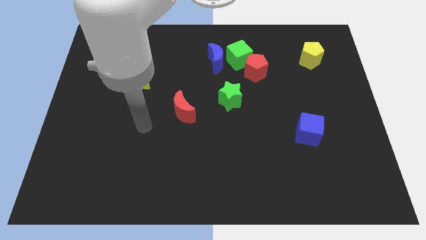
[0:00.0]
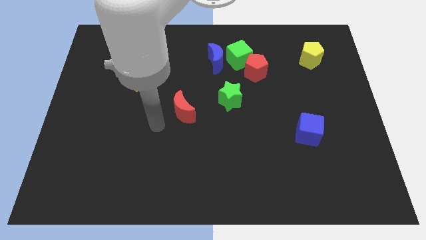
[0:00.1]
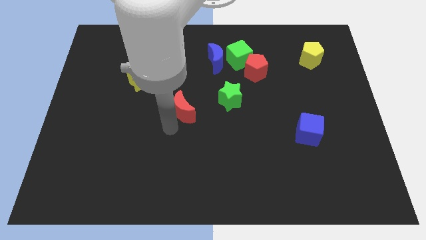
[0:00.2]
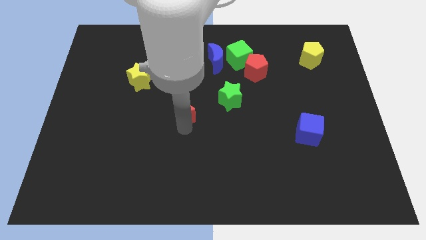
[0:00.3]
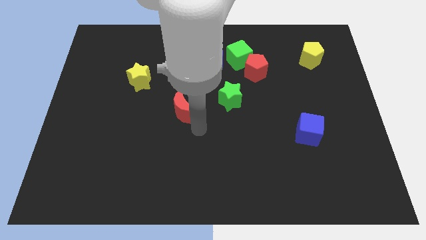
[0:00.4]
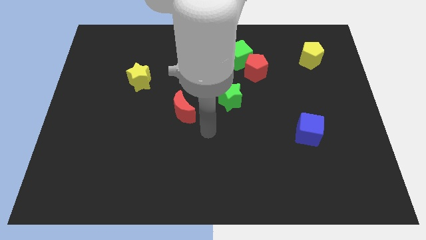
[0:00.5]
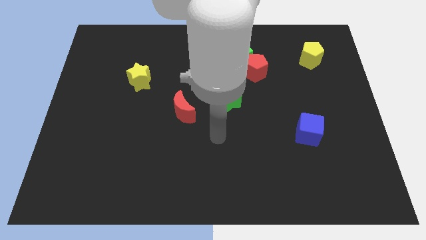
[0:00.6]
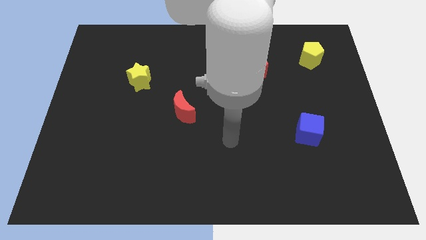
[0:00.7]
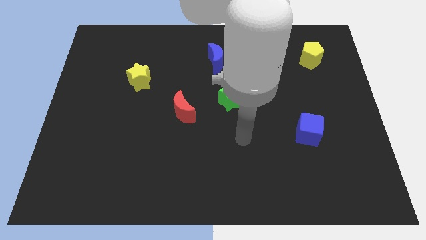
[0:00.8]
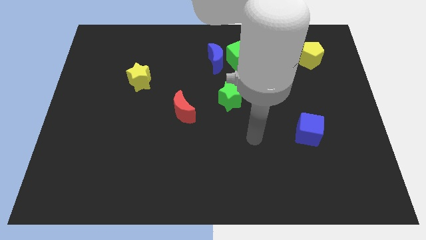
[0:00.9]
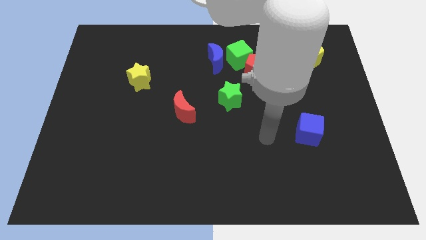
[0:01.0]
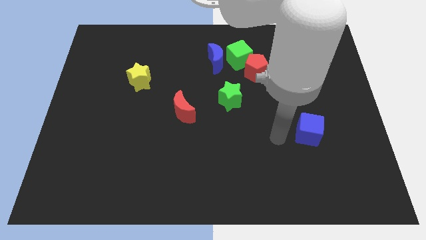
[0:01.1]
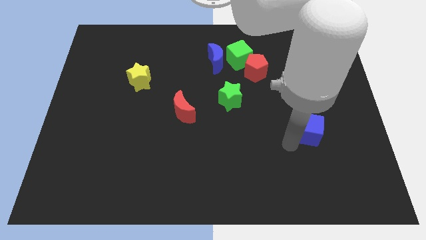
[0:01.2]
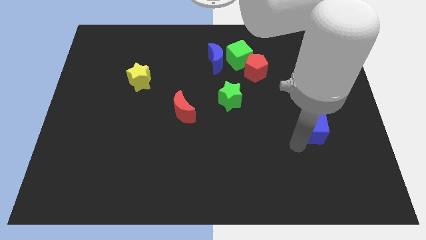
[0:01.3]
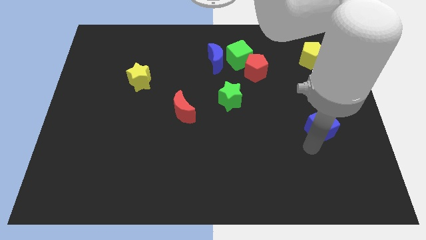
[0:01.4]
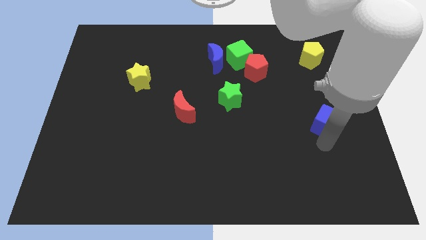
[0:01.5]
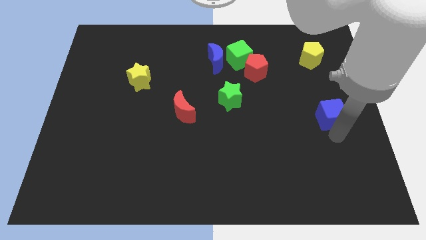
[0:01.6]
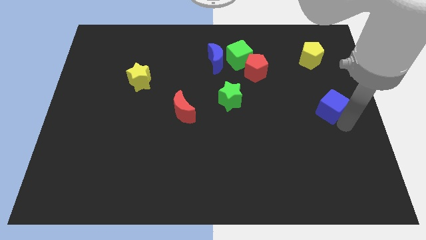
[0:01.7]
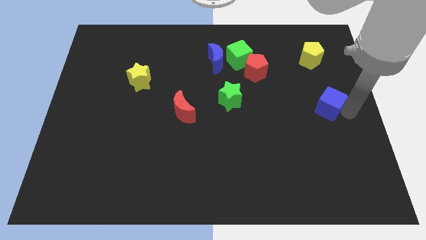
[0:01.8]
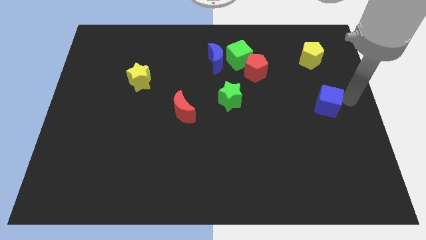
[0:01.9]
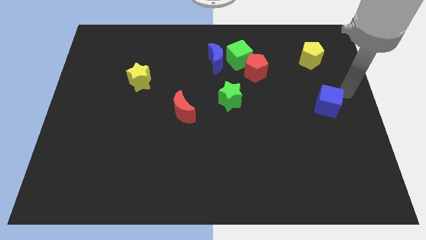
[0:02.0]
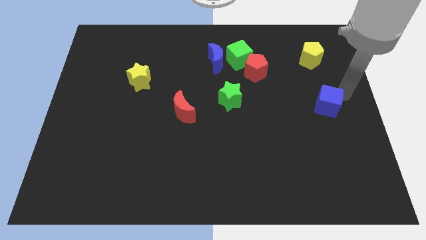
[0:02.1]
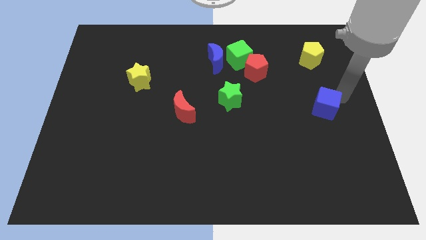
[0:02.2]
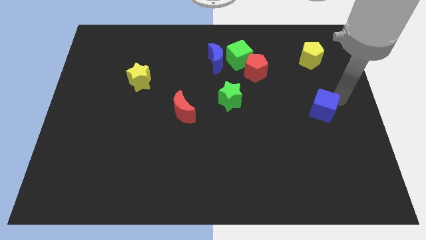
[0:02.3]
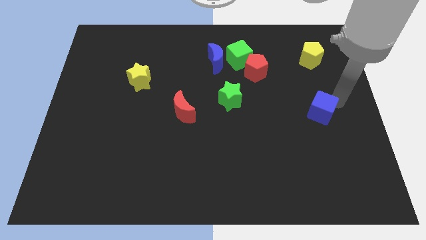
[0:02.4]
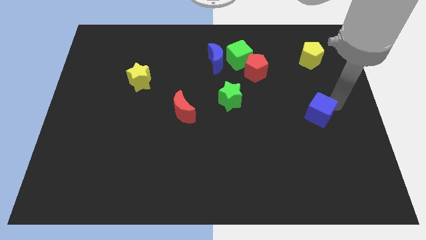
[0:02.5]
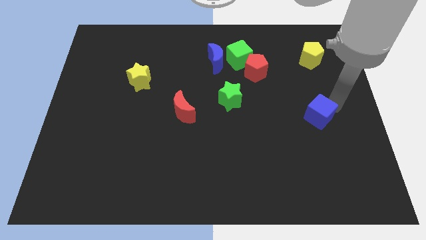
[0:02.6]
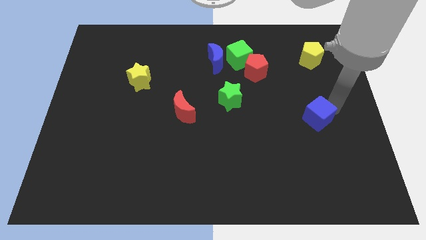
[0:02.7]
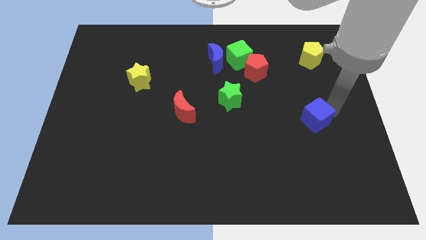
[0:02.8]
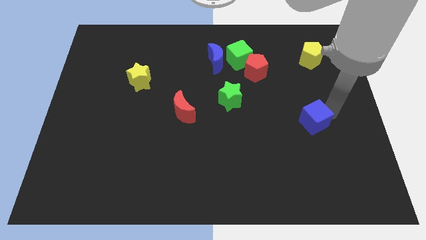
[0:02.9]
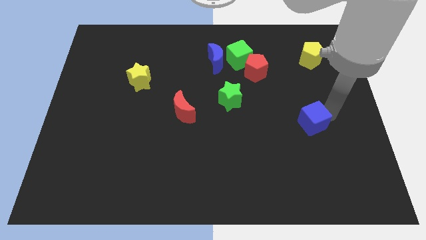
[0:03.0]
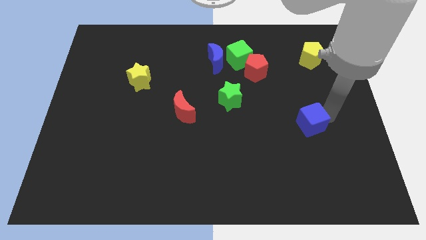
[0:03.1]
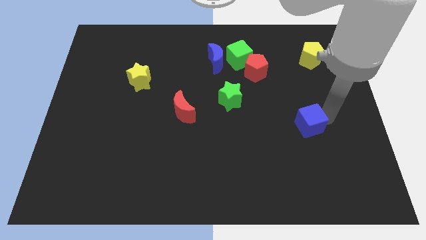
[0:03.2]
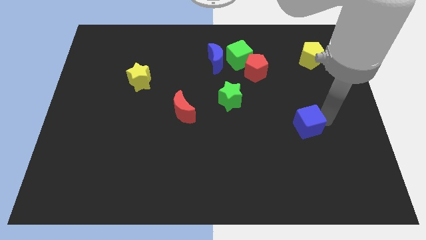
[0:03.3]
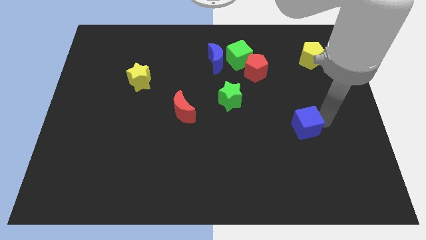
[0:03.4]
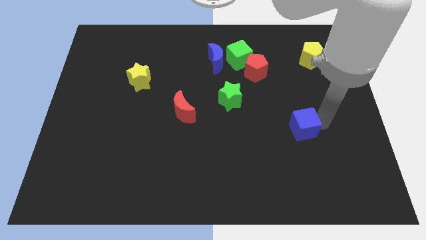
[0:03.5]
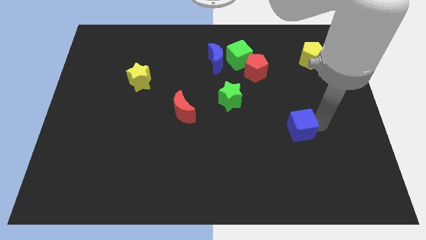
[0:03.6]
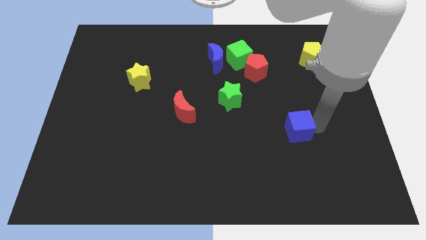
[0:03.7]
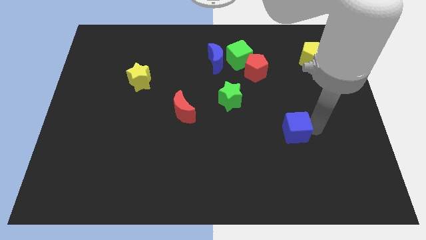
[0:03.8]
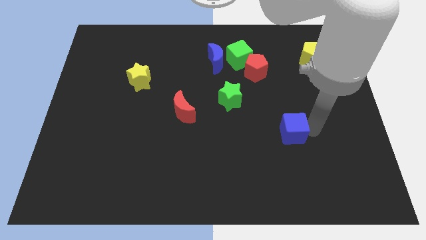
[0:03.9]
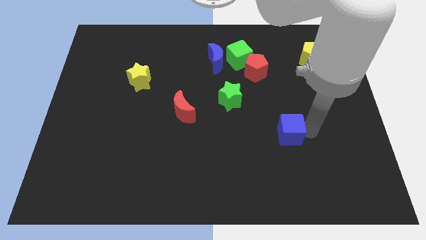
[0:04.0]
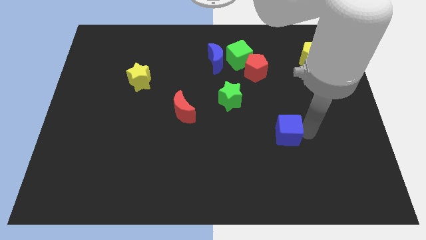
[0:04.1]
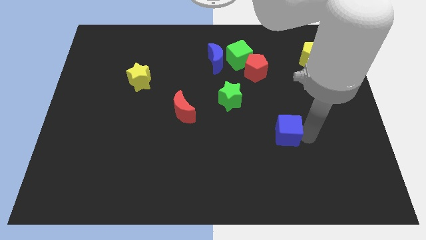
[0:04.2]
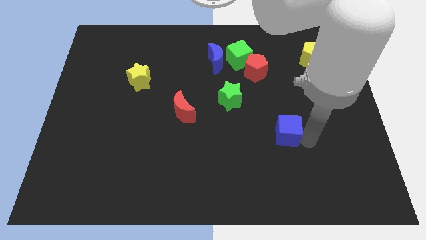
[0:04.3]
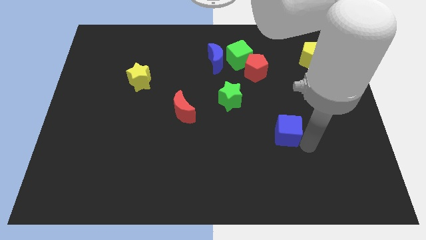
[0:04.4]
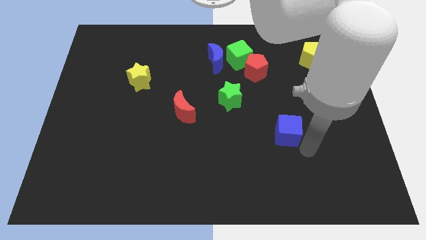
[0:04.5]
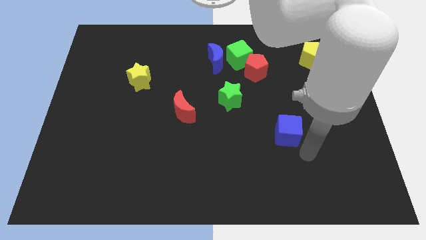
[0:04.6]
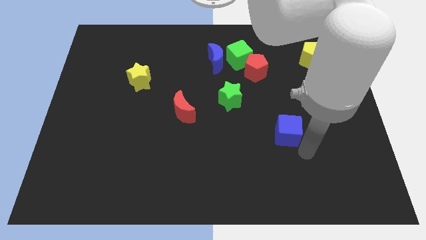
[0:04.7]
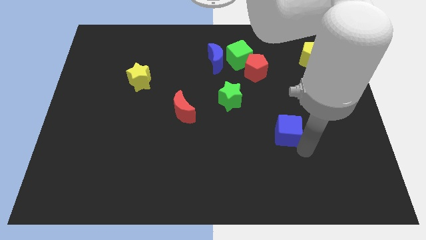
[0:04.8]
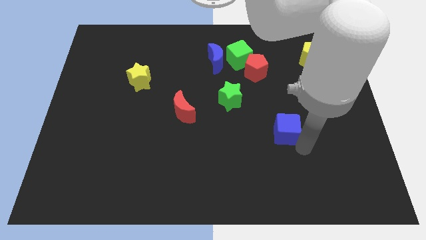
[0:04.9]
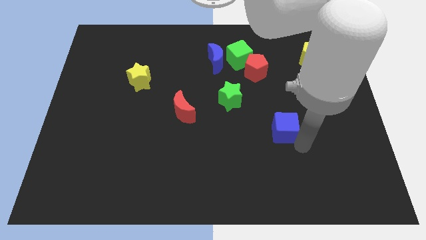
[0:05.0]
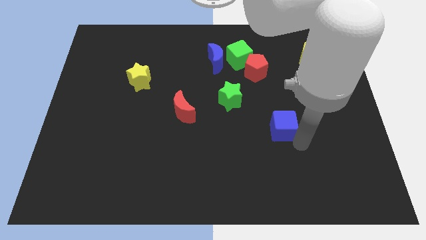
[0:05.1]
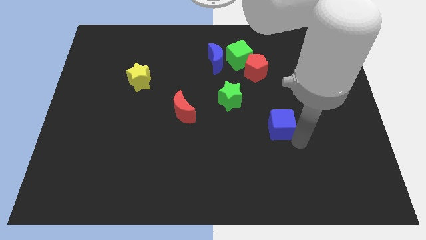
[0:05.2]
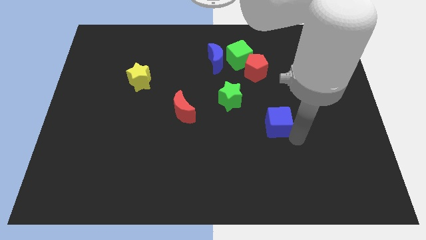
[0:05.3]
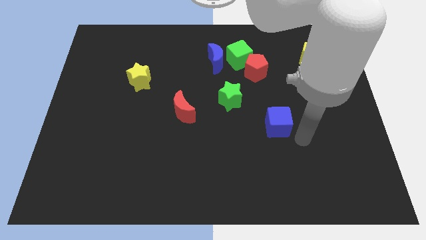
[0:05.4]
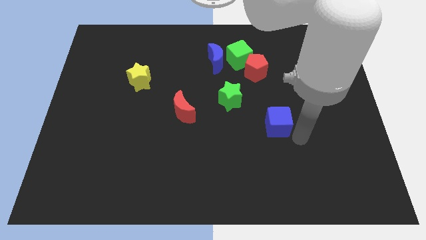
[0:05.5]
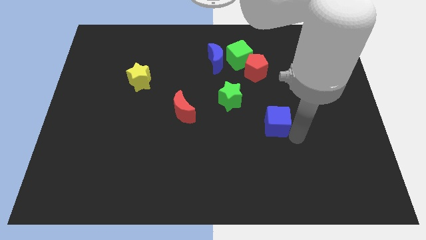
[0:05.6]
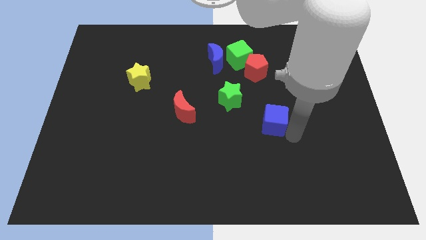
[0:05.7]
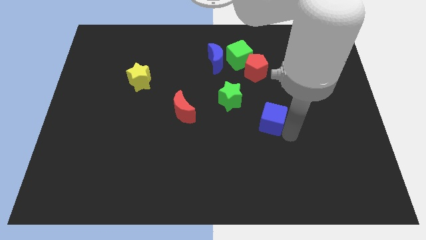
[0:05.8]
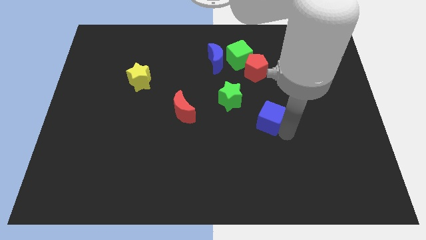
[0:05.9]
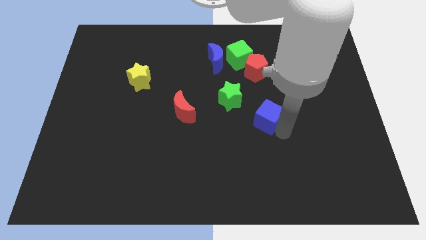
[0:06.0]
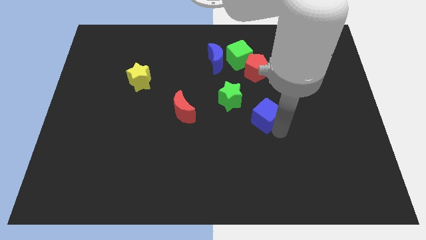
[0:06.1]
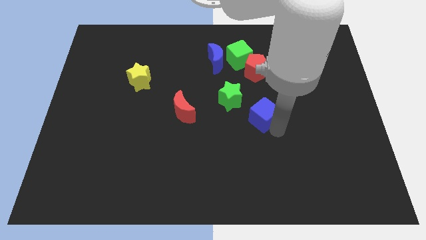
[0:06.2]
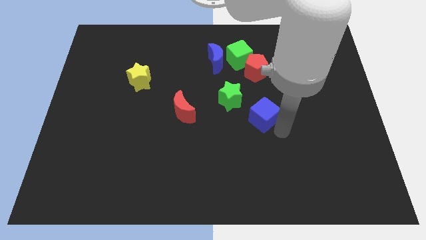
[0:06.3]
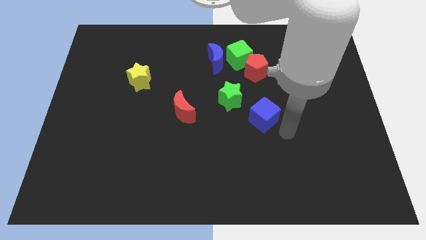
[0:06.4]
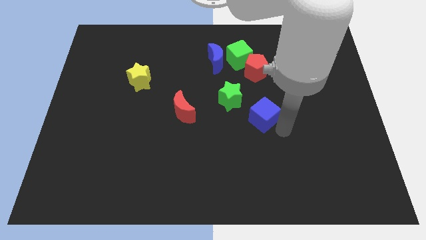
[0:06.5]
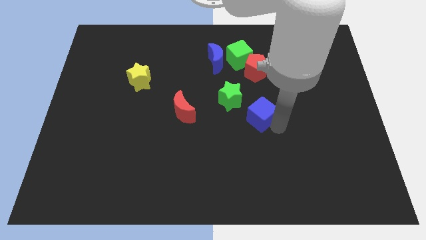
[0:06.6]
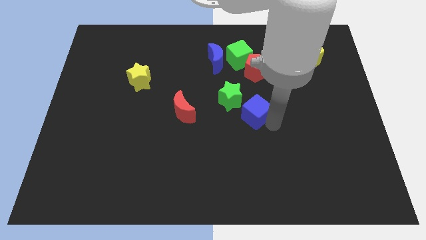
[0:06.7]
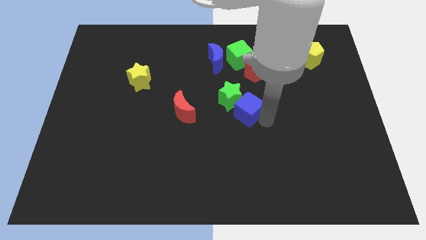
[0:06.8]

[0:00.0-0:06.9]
move the blue cube towards the green star

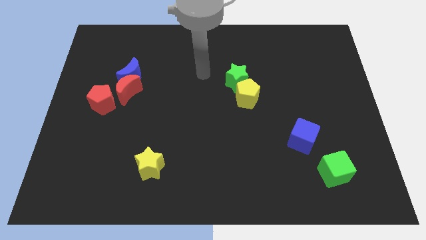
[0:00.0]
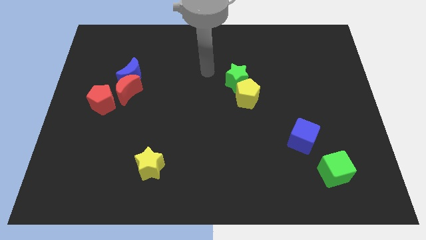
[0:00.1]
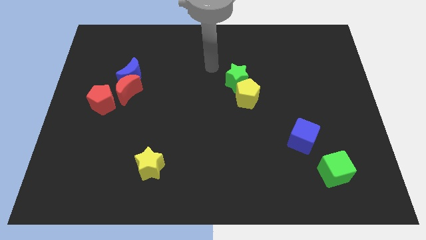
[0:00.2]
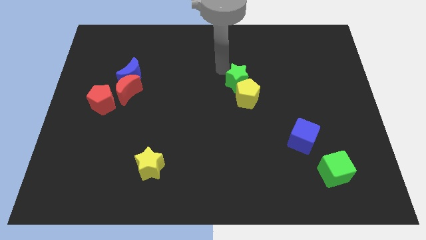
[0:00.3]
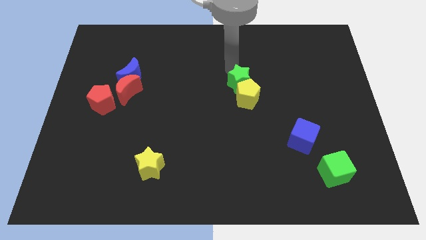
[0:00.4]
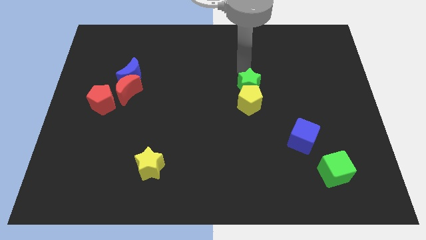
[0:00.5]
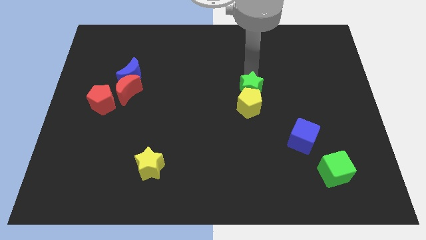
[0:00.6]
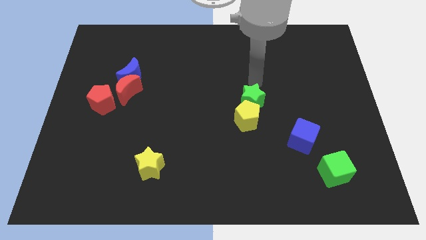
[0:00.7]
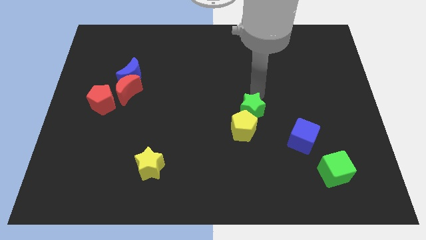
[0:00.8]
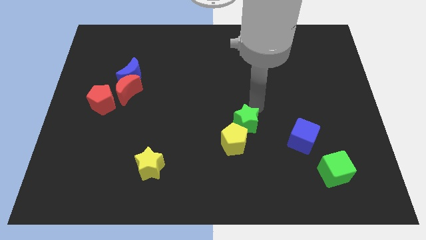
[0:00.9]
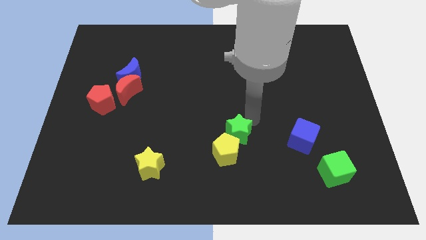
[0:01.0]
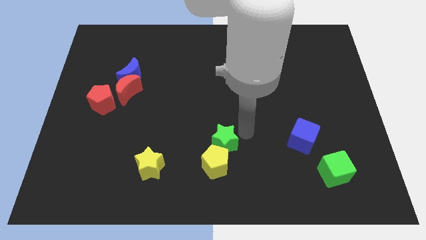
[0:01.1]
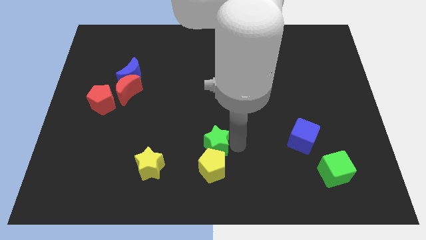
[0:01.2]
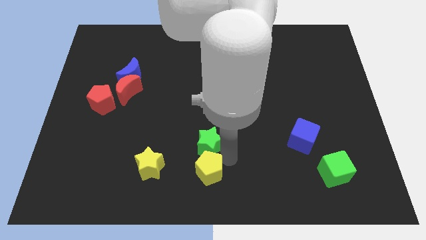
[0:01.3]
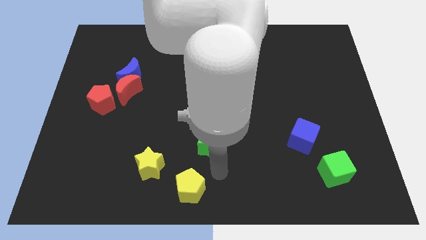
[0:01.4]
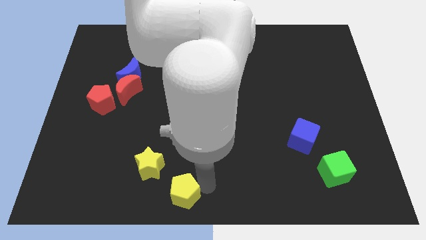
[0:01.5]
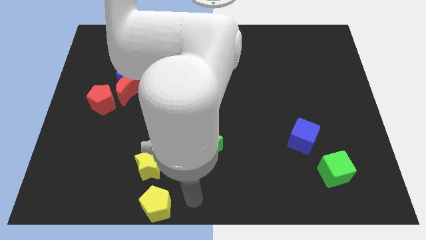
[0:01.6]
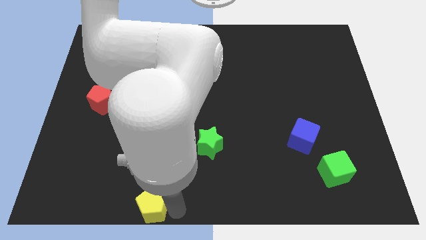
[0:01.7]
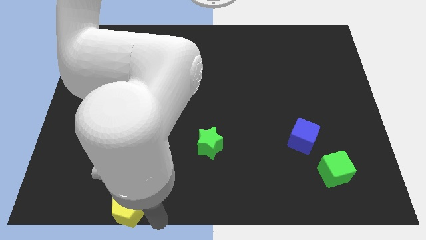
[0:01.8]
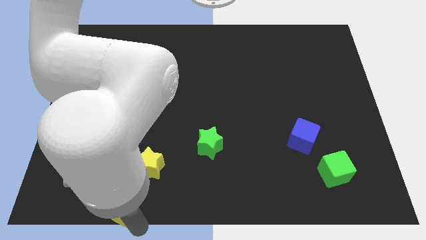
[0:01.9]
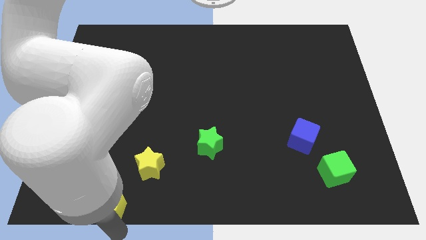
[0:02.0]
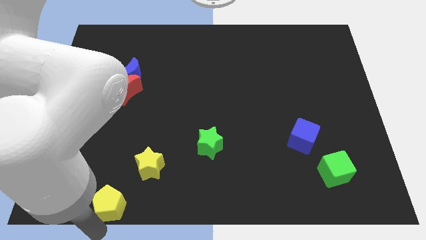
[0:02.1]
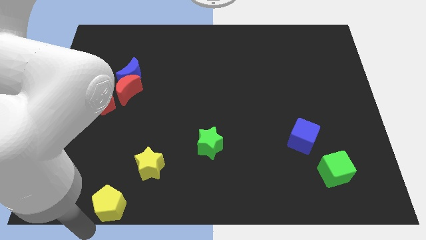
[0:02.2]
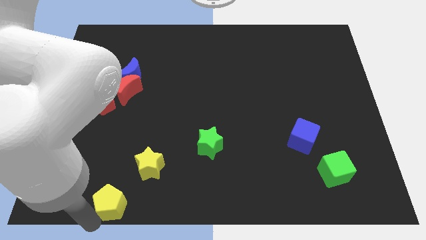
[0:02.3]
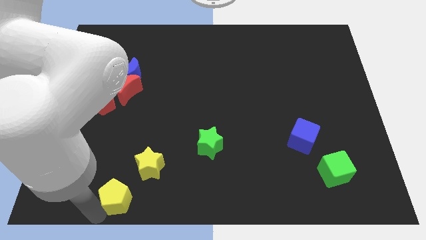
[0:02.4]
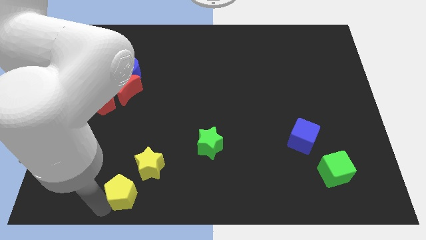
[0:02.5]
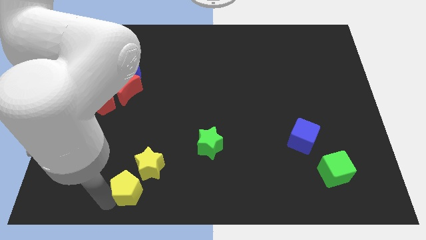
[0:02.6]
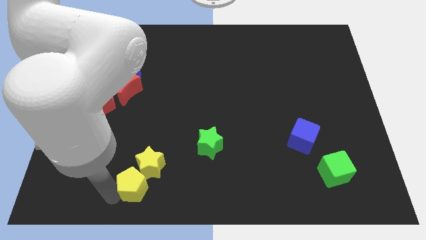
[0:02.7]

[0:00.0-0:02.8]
slide the yellow pentagon to the yellow star
